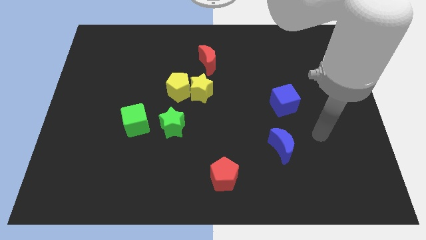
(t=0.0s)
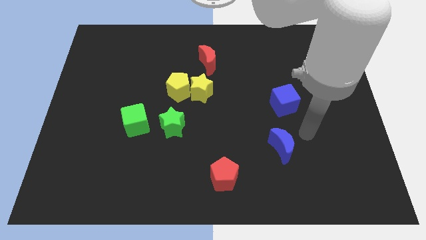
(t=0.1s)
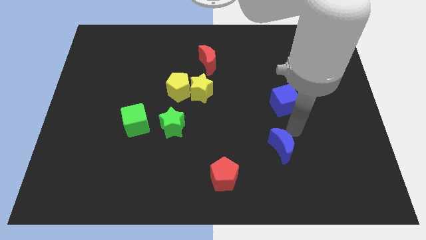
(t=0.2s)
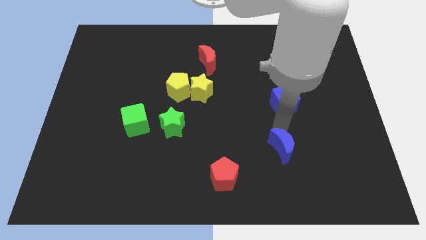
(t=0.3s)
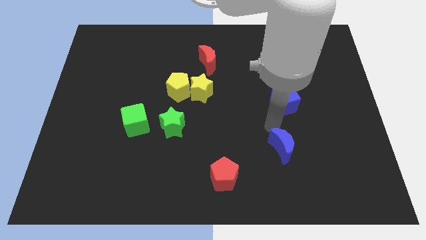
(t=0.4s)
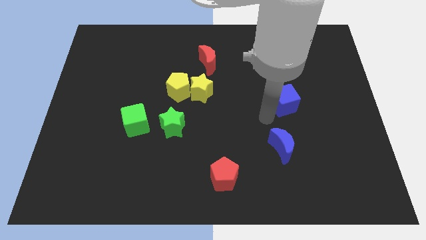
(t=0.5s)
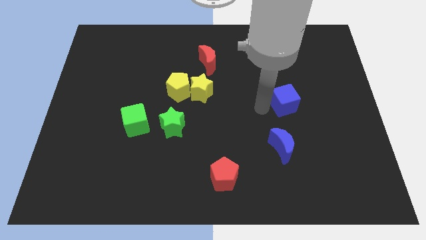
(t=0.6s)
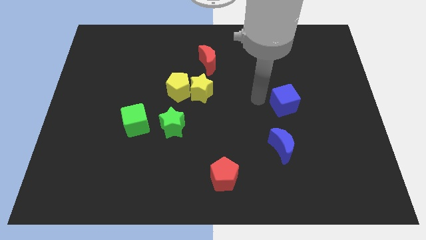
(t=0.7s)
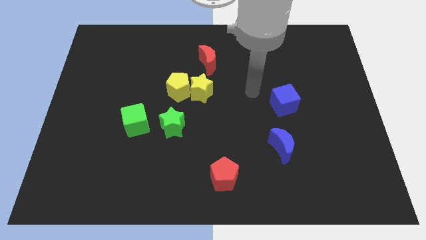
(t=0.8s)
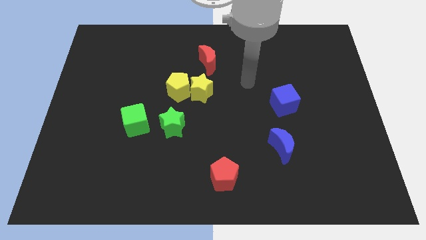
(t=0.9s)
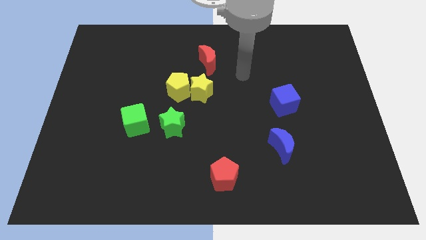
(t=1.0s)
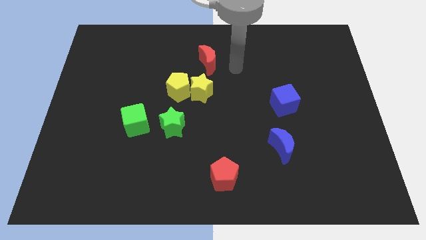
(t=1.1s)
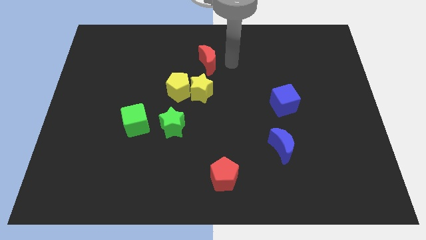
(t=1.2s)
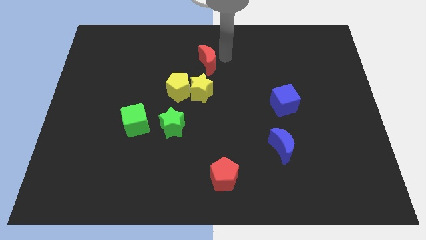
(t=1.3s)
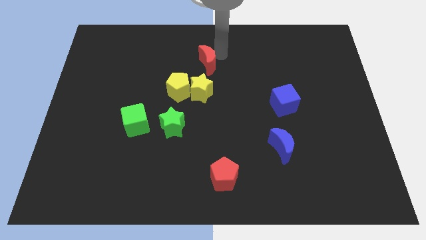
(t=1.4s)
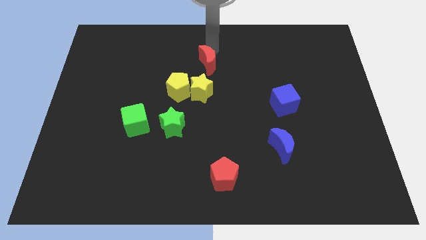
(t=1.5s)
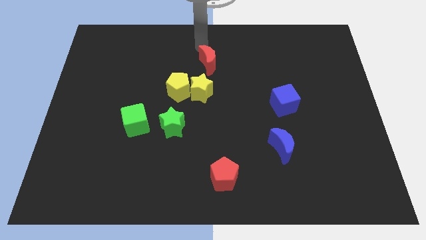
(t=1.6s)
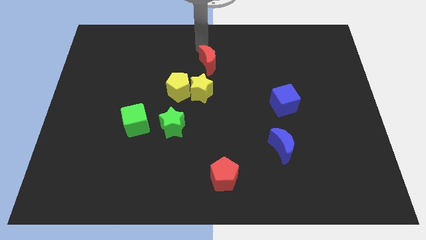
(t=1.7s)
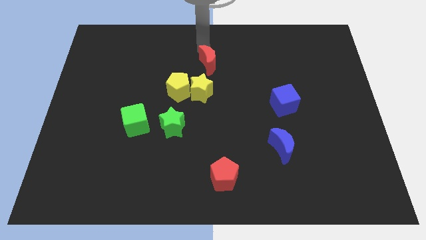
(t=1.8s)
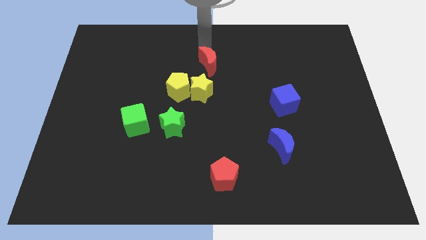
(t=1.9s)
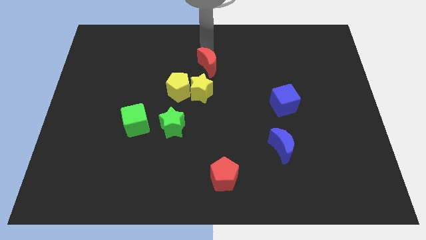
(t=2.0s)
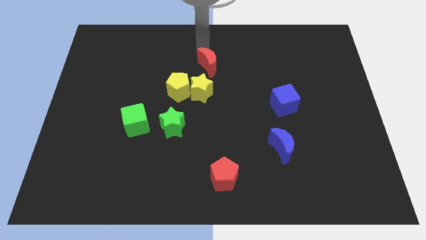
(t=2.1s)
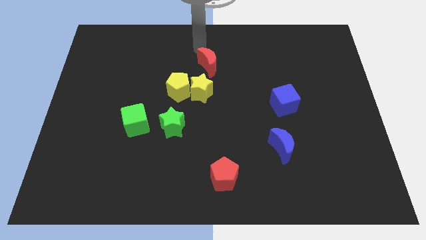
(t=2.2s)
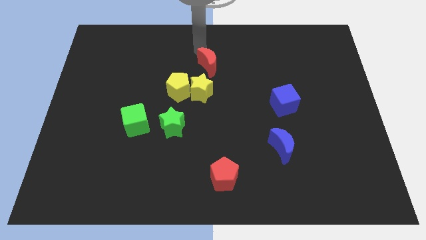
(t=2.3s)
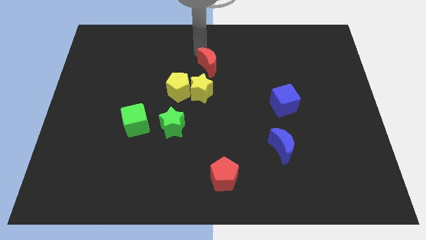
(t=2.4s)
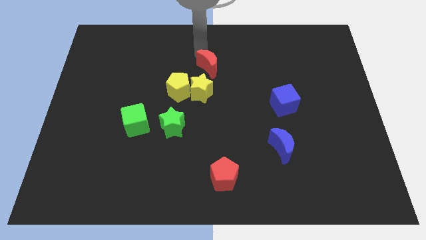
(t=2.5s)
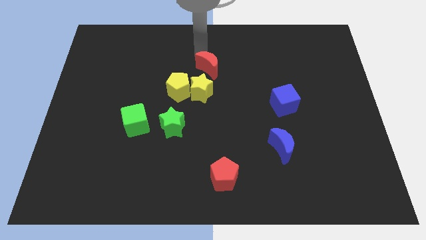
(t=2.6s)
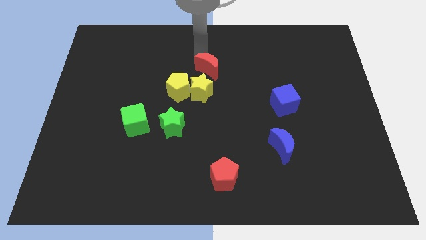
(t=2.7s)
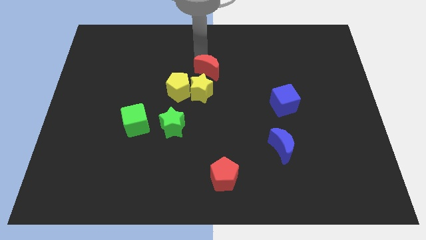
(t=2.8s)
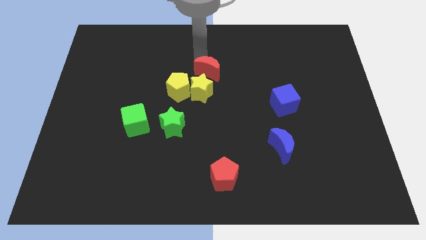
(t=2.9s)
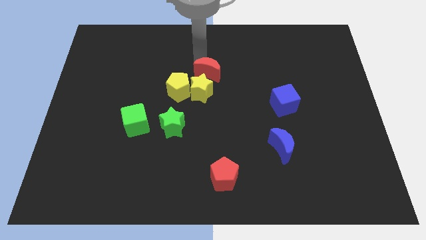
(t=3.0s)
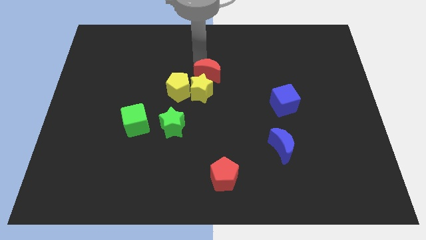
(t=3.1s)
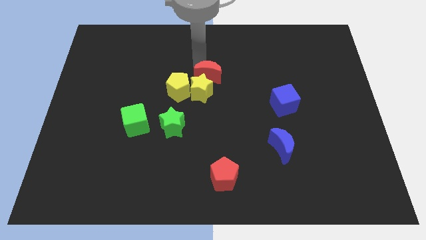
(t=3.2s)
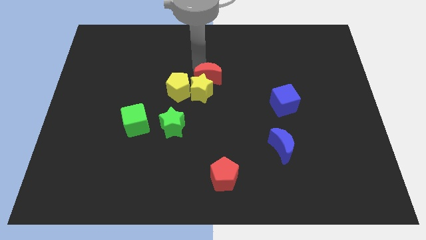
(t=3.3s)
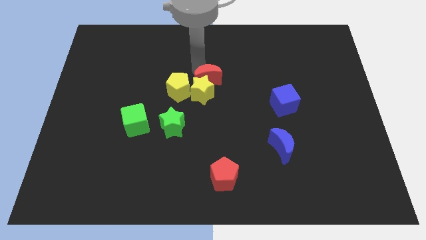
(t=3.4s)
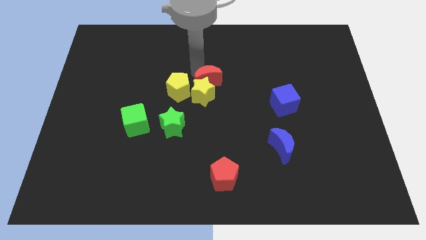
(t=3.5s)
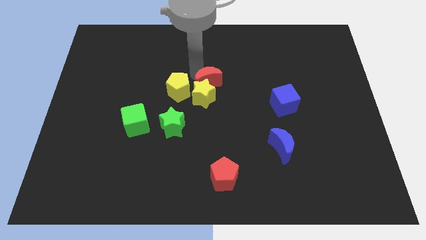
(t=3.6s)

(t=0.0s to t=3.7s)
slightly move the red moon down

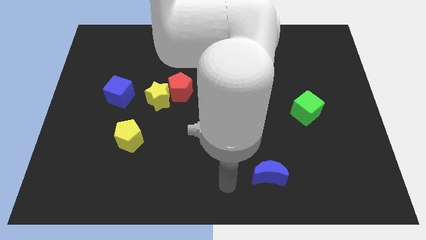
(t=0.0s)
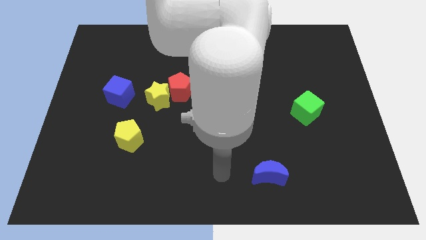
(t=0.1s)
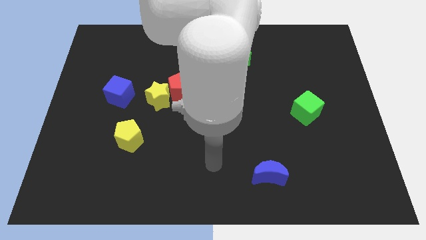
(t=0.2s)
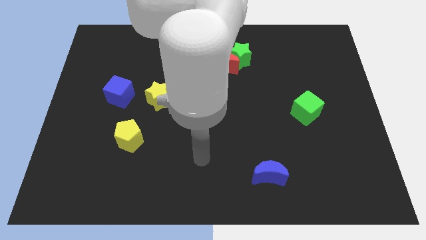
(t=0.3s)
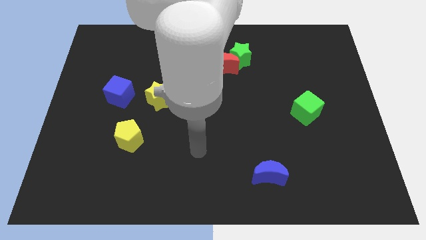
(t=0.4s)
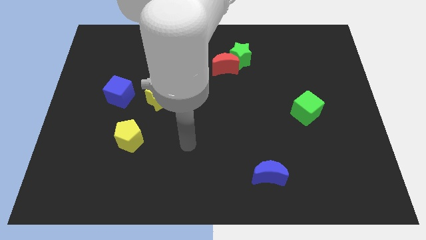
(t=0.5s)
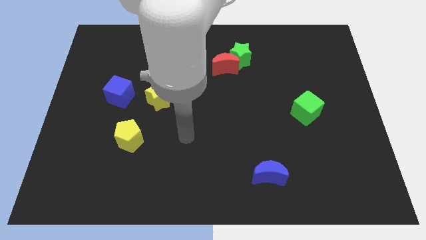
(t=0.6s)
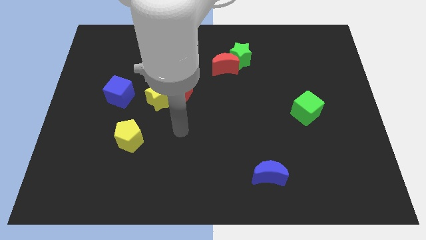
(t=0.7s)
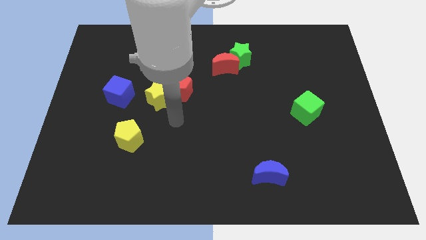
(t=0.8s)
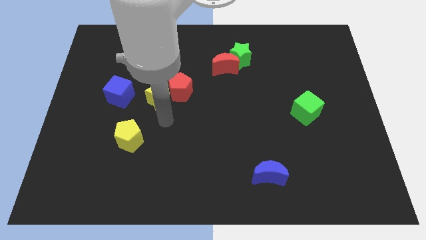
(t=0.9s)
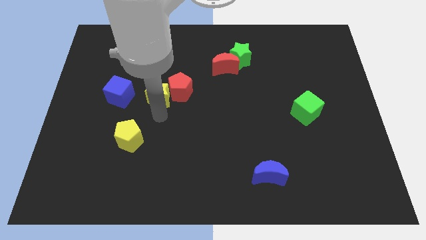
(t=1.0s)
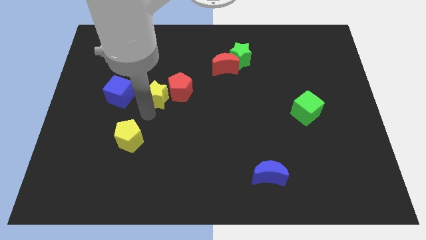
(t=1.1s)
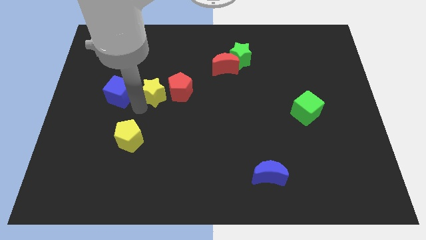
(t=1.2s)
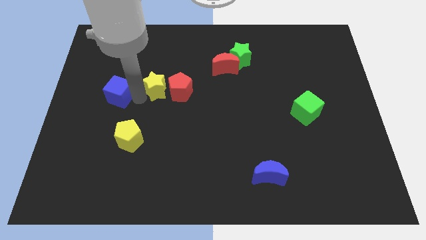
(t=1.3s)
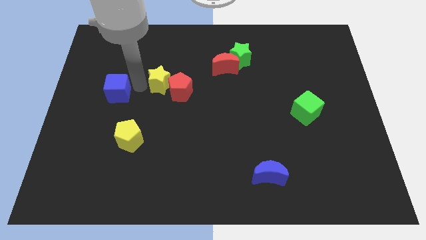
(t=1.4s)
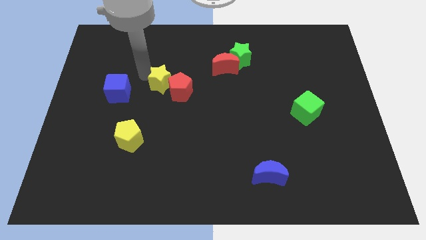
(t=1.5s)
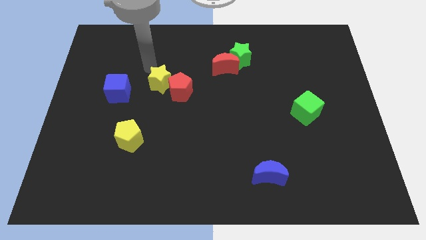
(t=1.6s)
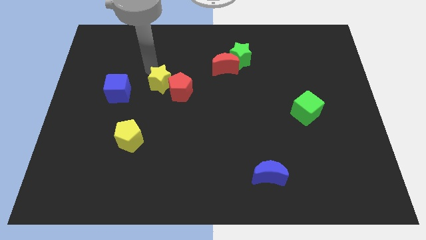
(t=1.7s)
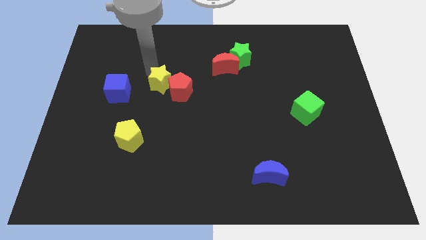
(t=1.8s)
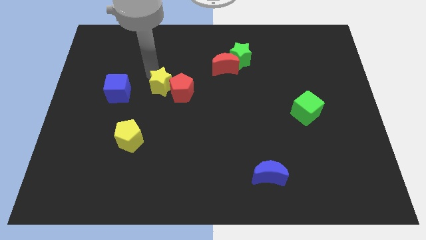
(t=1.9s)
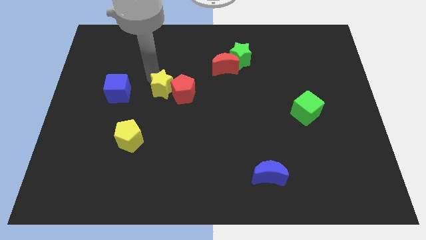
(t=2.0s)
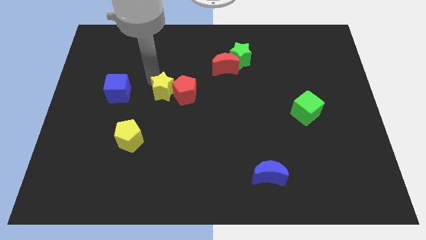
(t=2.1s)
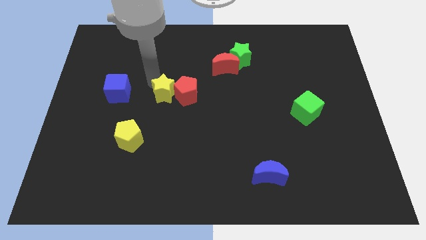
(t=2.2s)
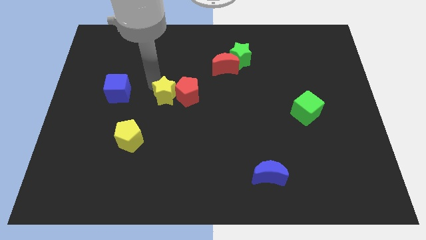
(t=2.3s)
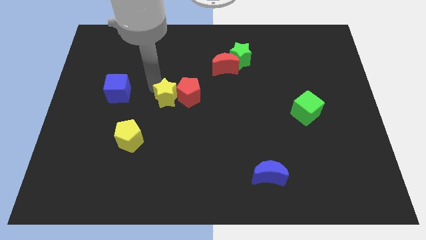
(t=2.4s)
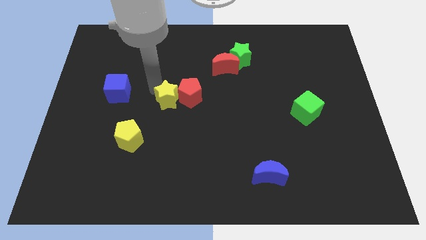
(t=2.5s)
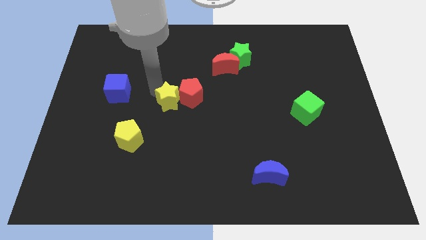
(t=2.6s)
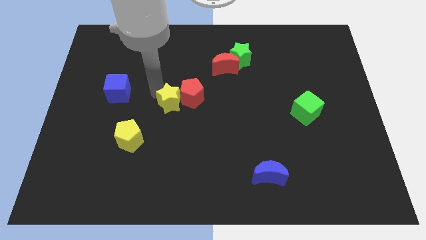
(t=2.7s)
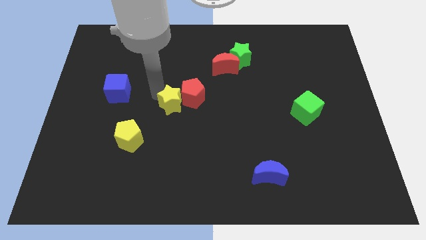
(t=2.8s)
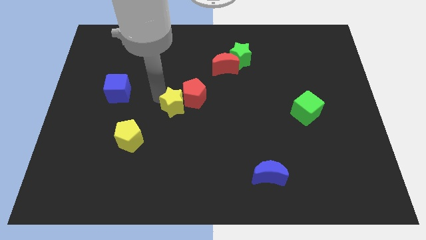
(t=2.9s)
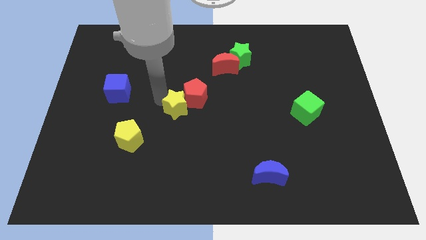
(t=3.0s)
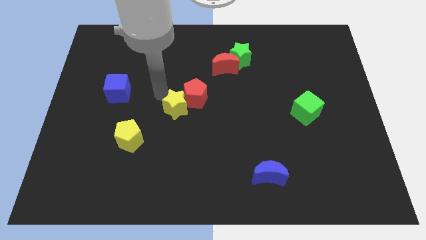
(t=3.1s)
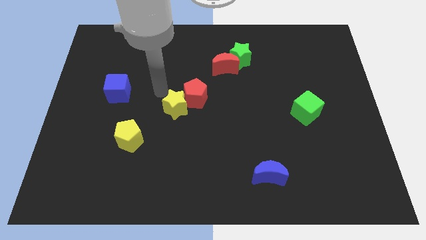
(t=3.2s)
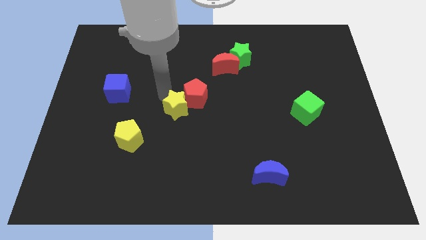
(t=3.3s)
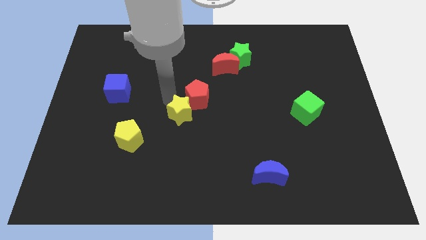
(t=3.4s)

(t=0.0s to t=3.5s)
push the yellow star downwards and to the right diagonally slightly

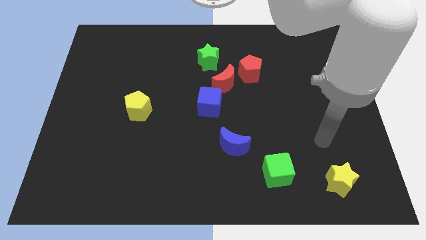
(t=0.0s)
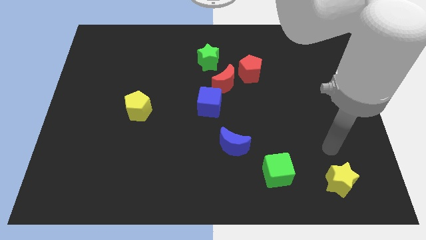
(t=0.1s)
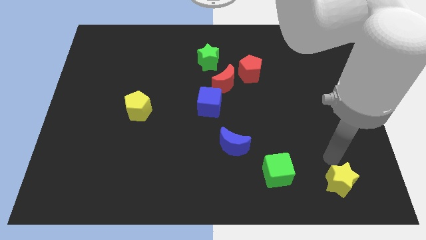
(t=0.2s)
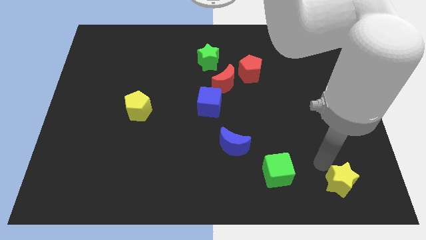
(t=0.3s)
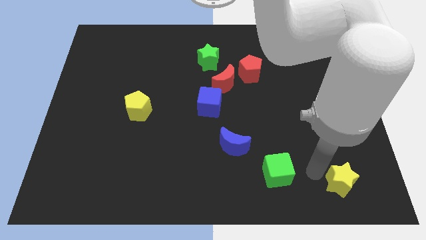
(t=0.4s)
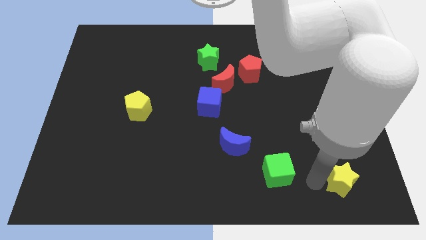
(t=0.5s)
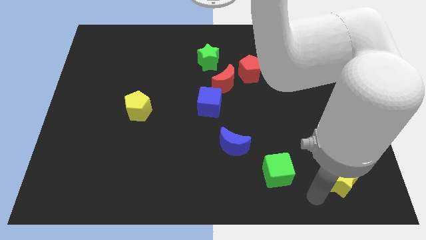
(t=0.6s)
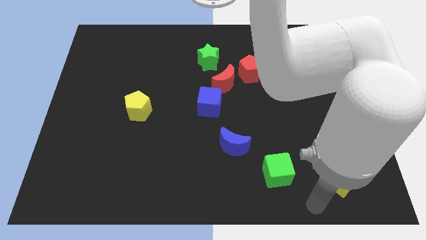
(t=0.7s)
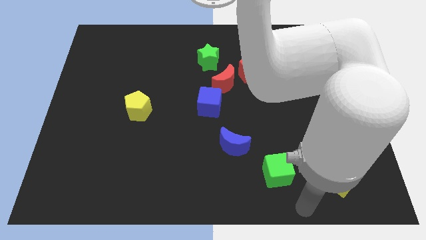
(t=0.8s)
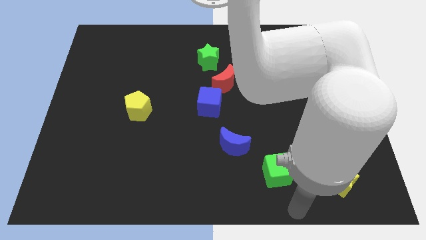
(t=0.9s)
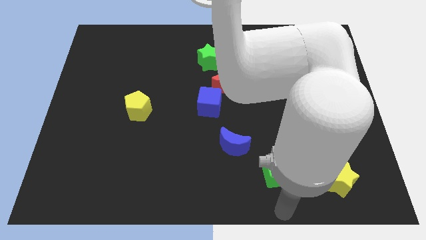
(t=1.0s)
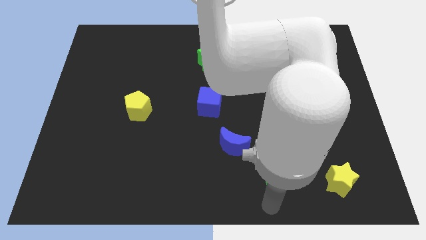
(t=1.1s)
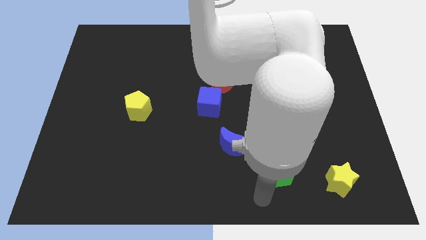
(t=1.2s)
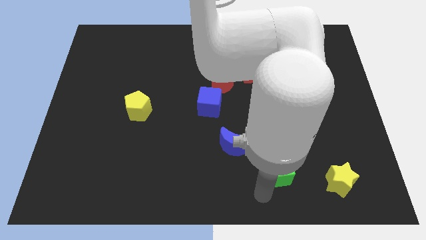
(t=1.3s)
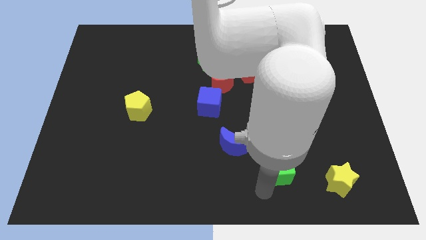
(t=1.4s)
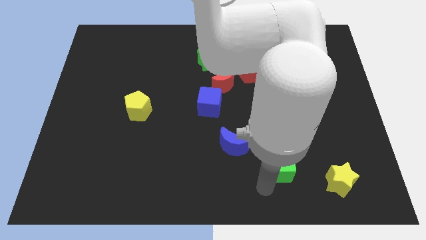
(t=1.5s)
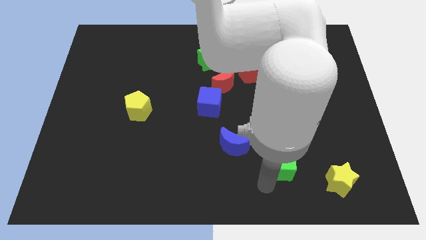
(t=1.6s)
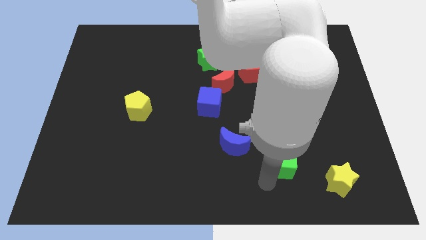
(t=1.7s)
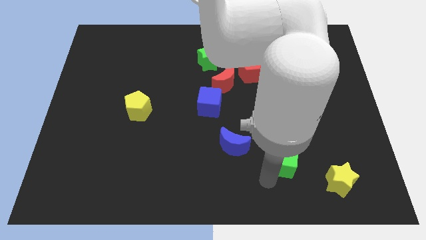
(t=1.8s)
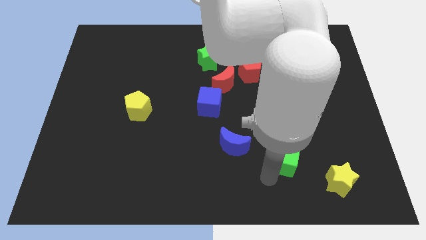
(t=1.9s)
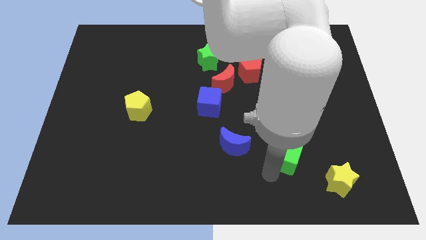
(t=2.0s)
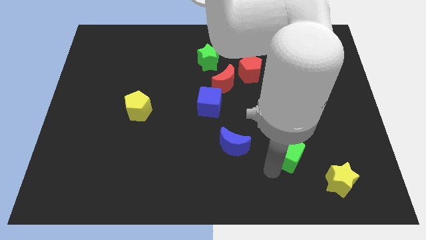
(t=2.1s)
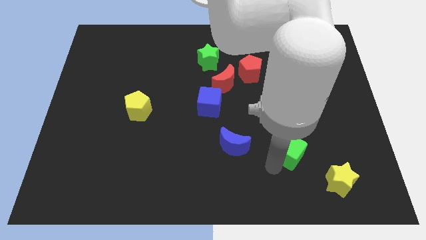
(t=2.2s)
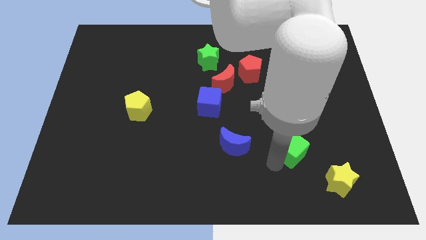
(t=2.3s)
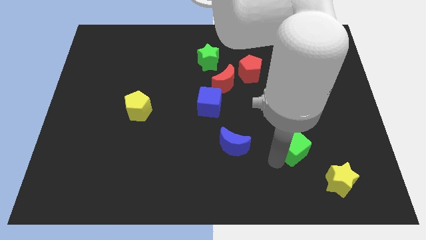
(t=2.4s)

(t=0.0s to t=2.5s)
slide the green cube a little upwards and to the right diagonally
